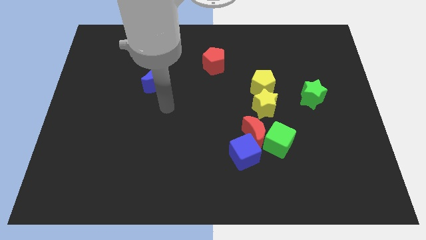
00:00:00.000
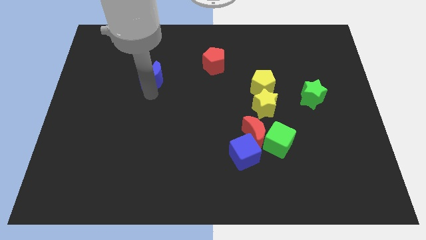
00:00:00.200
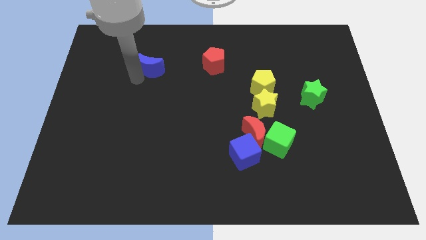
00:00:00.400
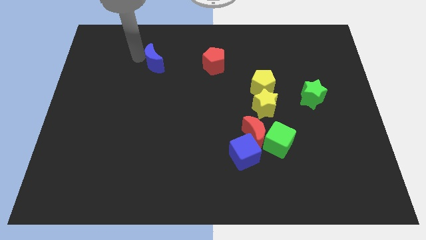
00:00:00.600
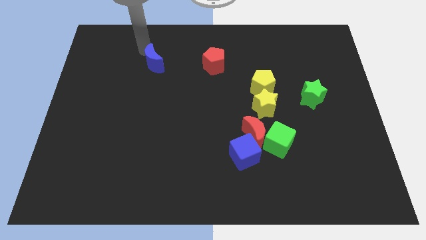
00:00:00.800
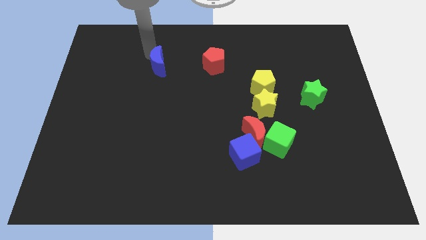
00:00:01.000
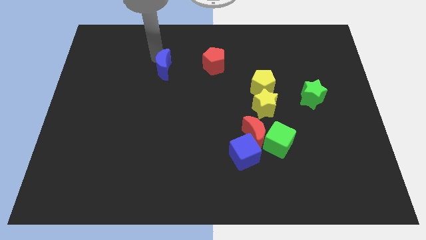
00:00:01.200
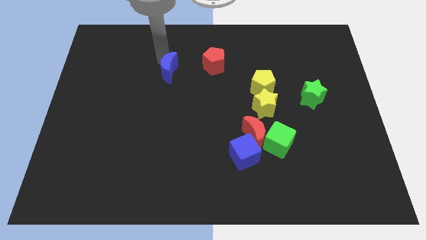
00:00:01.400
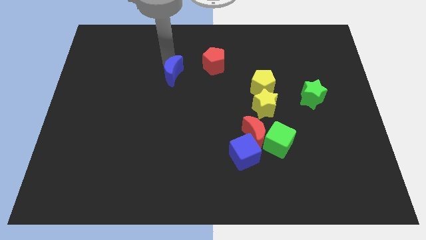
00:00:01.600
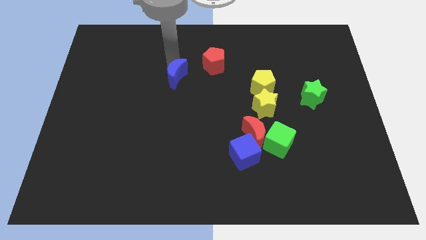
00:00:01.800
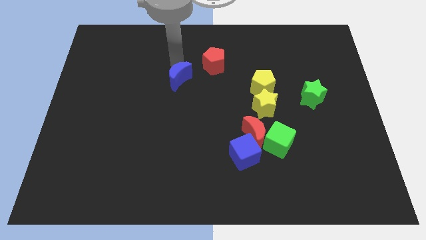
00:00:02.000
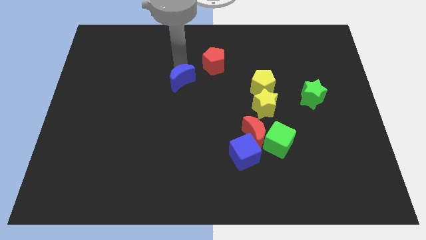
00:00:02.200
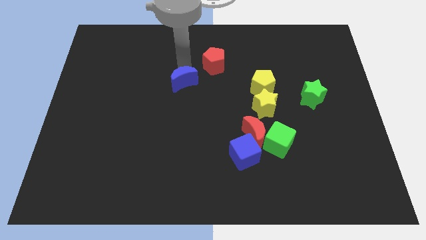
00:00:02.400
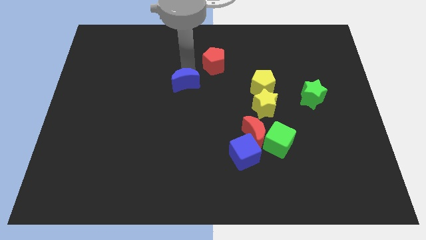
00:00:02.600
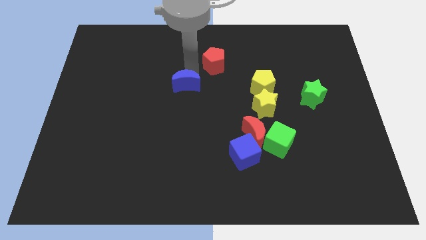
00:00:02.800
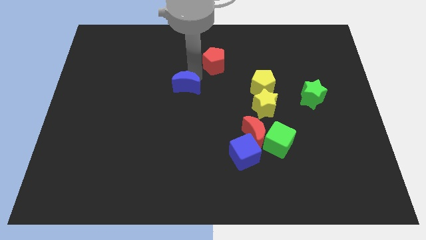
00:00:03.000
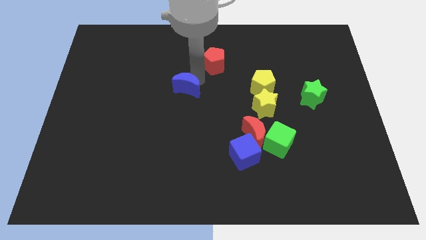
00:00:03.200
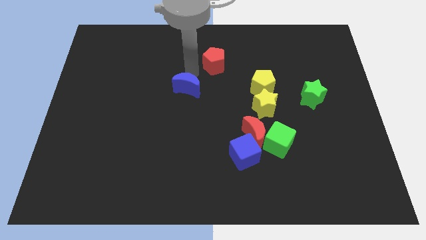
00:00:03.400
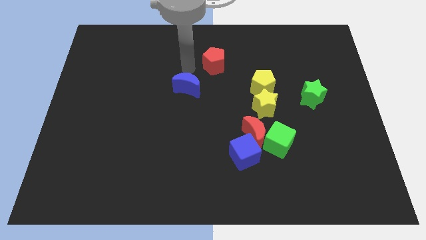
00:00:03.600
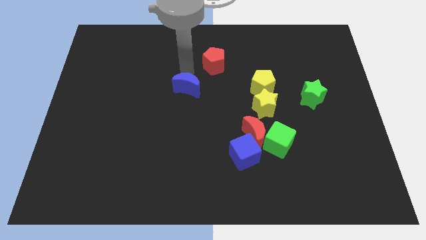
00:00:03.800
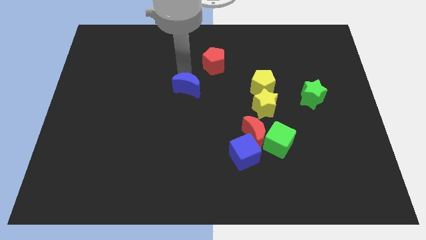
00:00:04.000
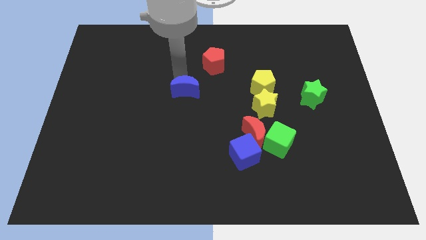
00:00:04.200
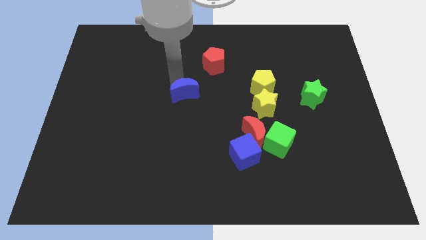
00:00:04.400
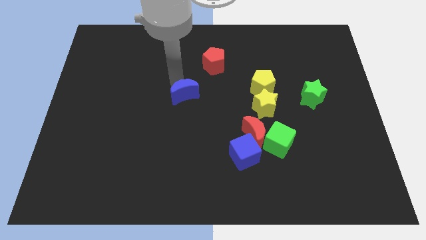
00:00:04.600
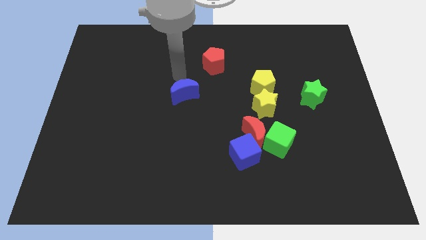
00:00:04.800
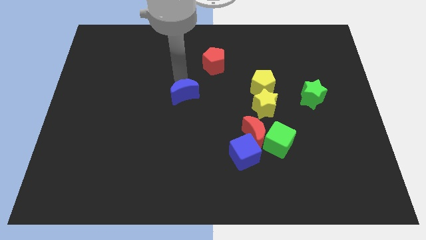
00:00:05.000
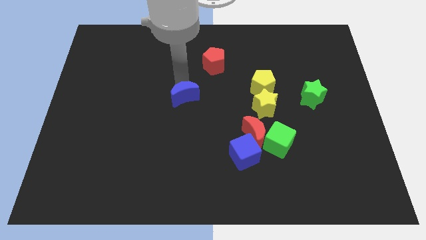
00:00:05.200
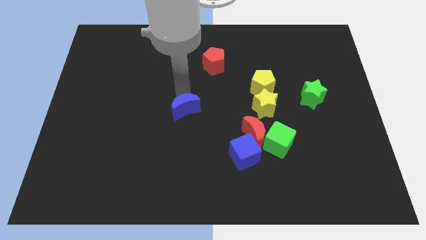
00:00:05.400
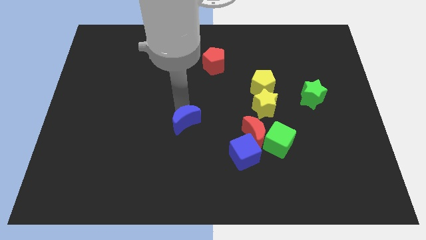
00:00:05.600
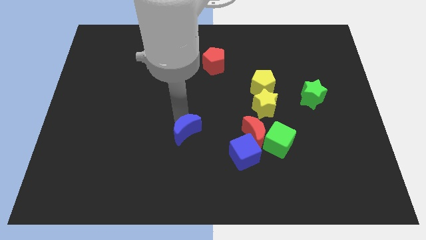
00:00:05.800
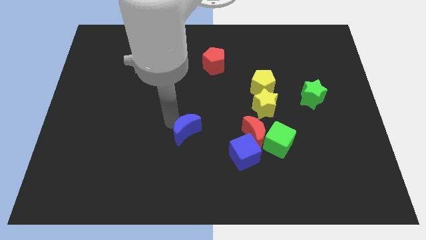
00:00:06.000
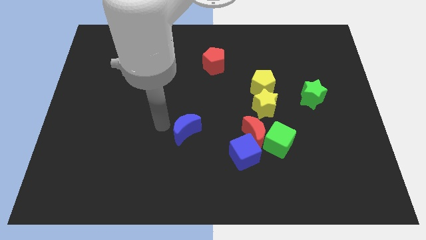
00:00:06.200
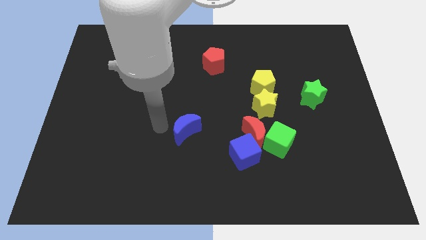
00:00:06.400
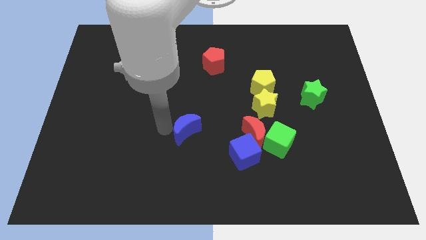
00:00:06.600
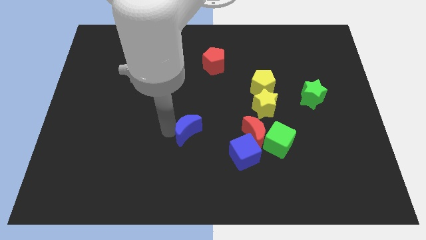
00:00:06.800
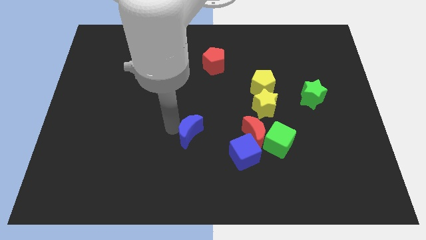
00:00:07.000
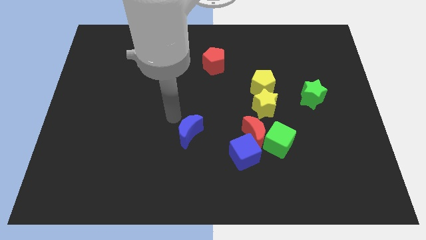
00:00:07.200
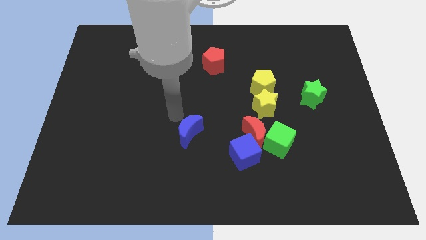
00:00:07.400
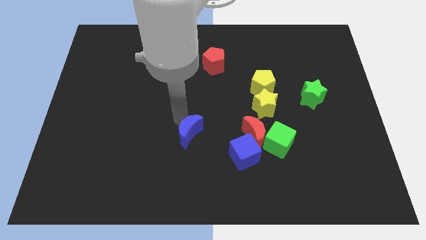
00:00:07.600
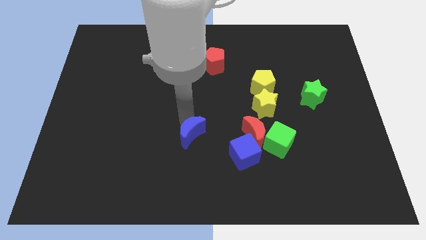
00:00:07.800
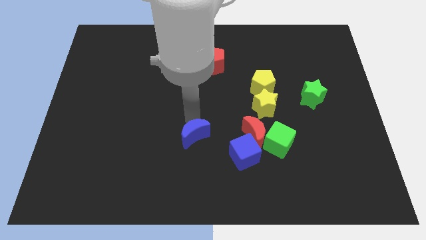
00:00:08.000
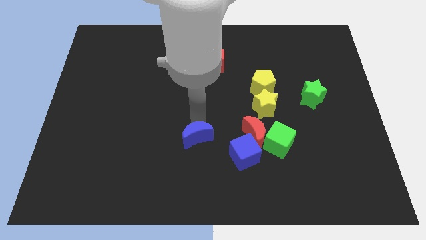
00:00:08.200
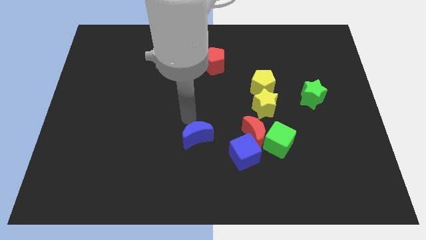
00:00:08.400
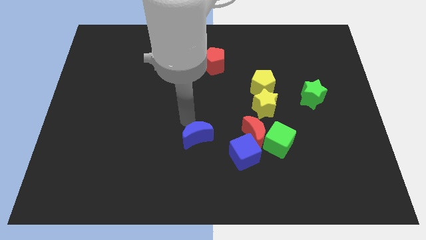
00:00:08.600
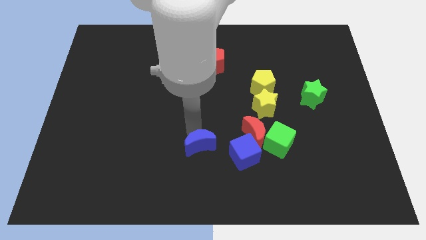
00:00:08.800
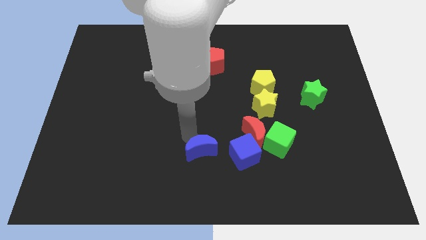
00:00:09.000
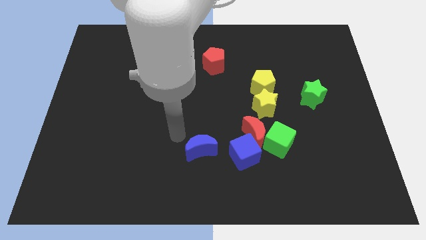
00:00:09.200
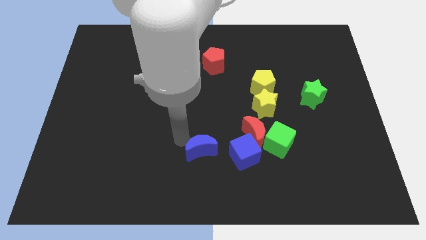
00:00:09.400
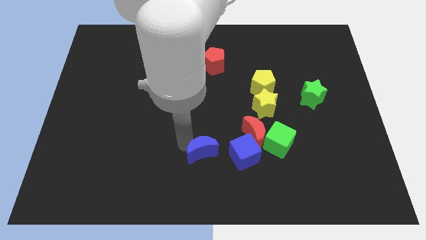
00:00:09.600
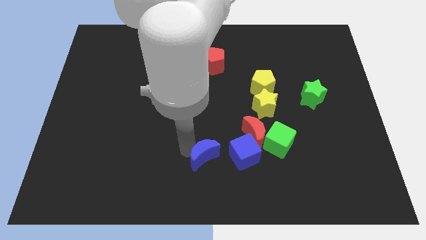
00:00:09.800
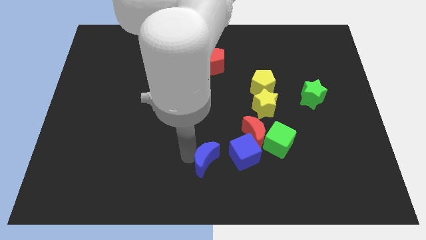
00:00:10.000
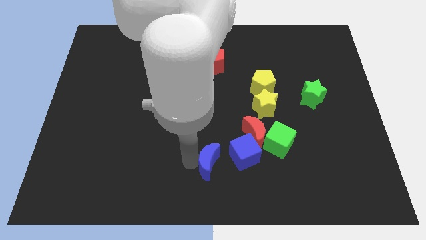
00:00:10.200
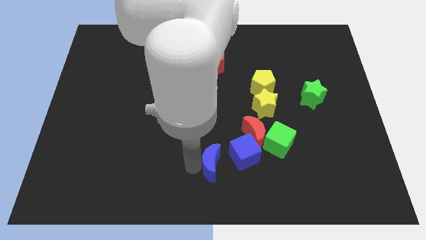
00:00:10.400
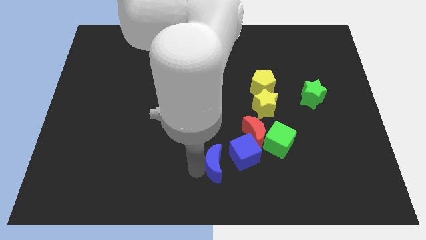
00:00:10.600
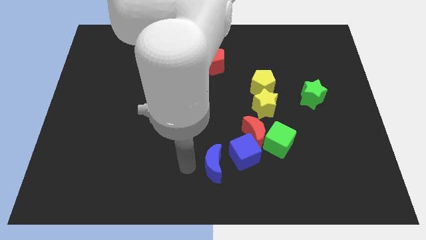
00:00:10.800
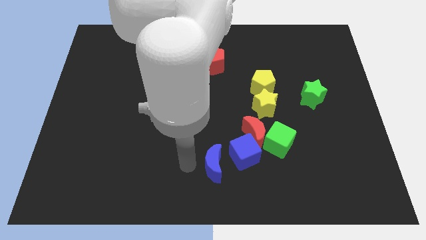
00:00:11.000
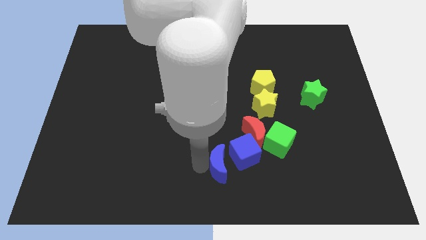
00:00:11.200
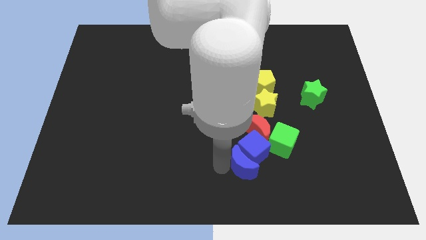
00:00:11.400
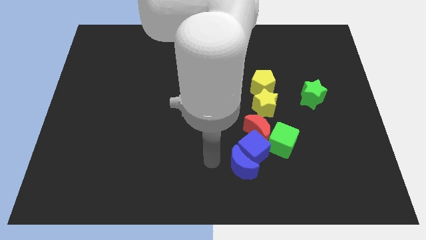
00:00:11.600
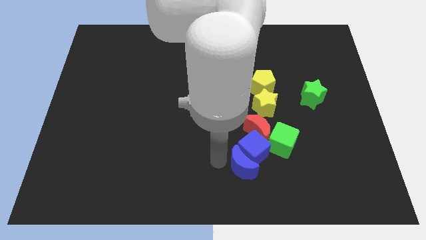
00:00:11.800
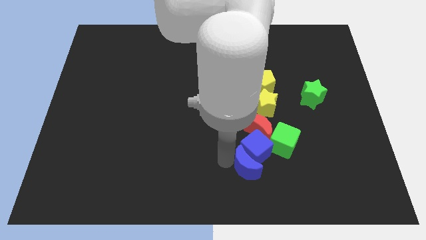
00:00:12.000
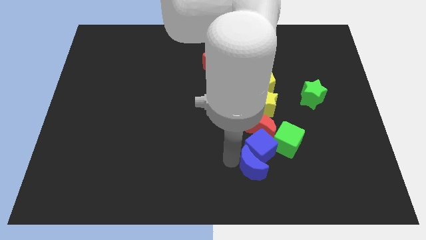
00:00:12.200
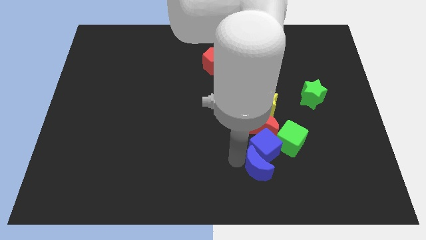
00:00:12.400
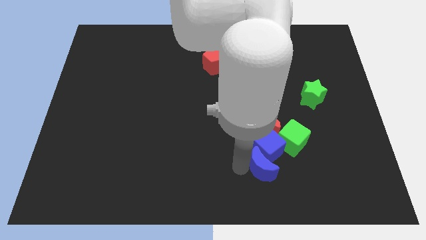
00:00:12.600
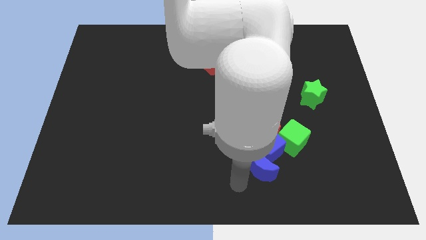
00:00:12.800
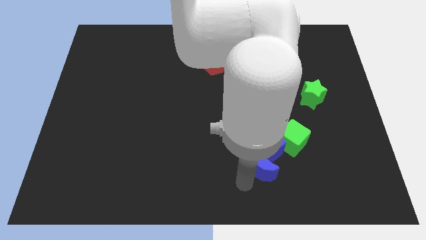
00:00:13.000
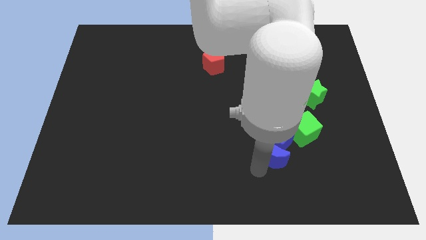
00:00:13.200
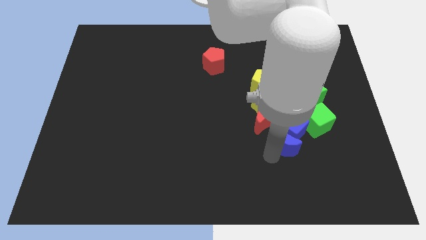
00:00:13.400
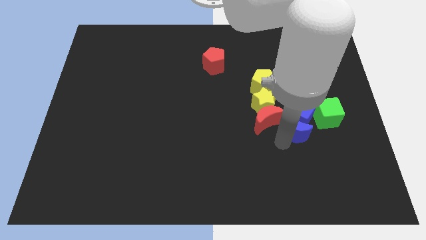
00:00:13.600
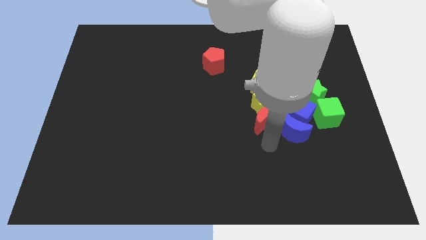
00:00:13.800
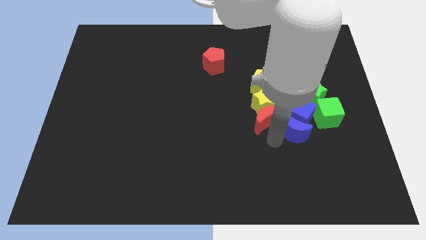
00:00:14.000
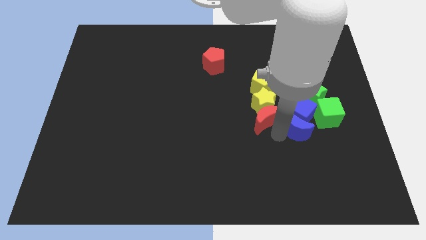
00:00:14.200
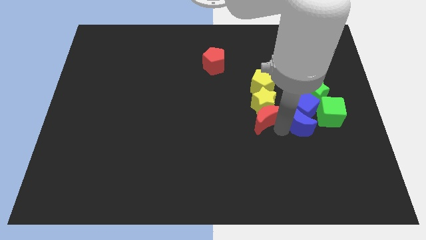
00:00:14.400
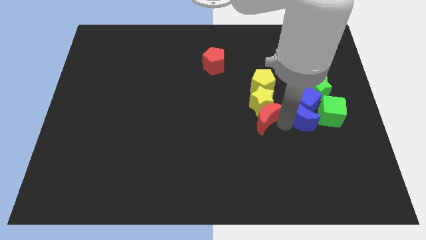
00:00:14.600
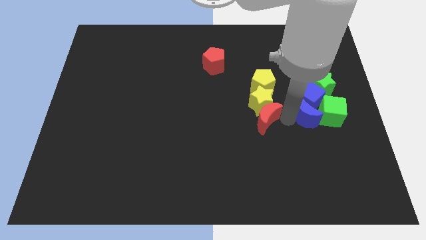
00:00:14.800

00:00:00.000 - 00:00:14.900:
move the blue moon towards the green cube

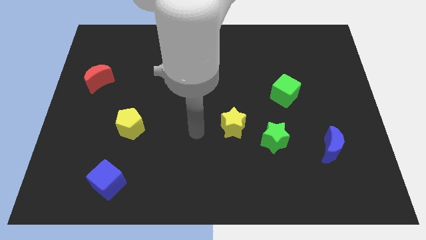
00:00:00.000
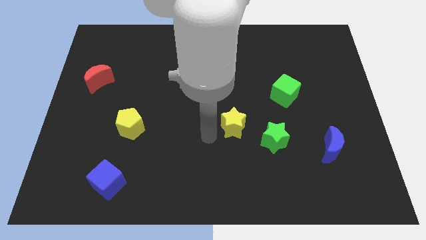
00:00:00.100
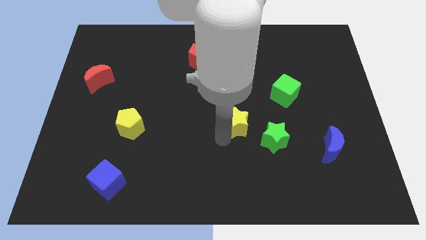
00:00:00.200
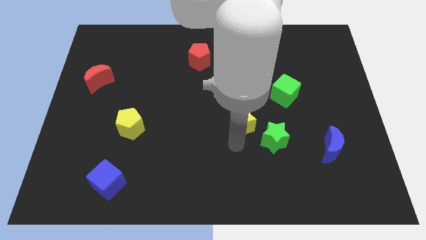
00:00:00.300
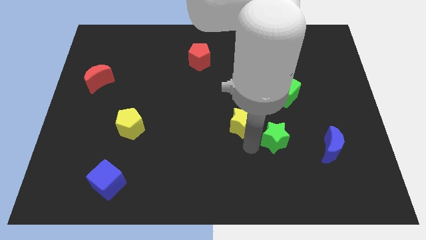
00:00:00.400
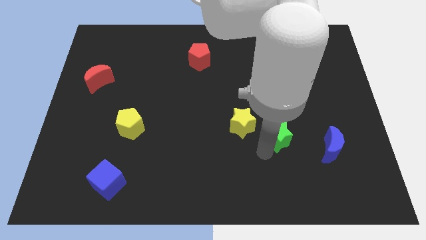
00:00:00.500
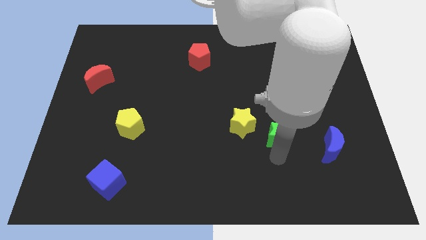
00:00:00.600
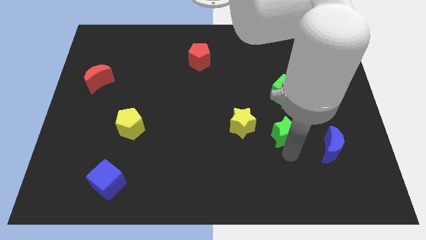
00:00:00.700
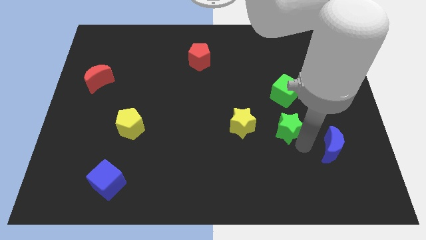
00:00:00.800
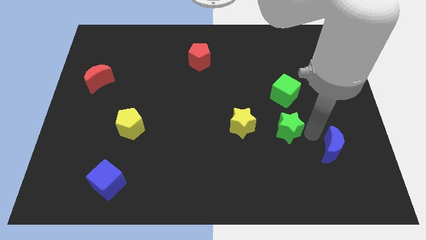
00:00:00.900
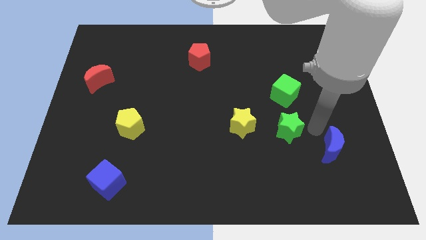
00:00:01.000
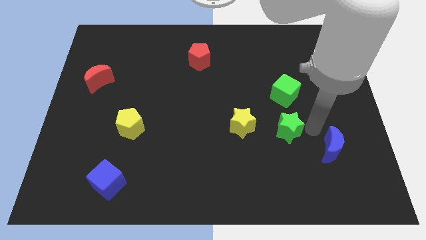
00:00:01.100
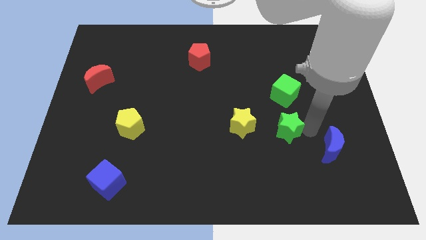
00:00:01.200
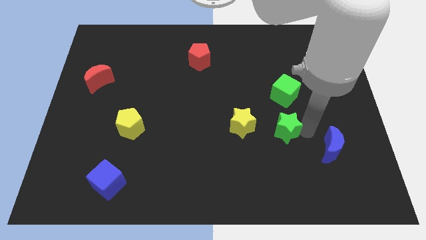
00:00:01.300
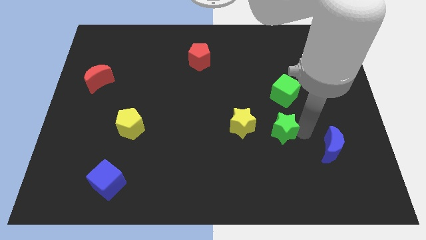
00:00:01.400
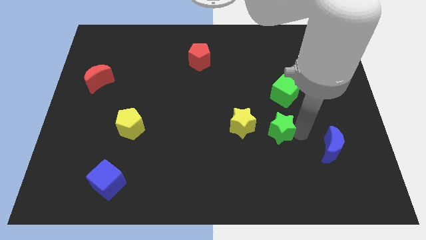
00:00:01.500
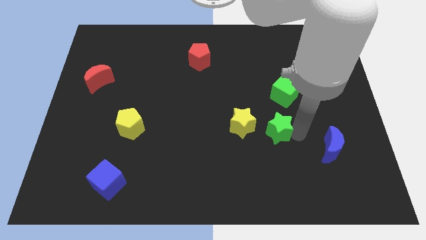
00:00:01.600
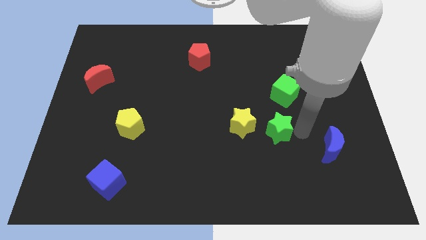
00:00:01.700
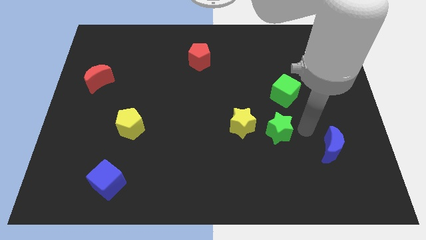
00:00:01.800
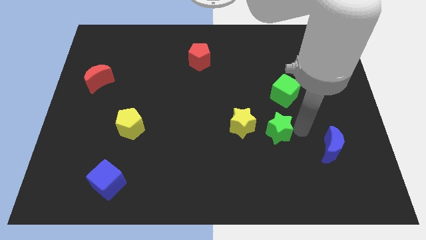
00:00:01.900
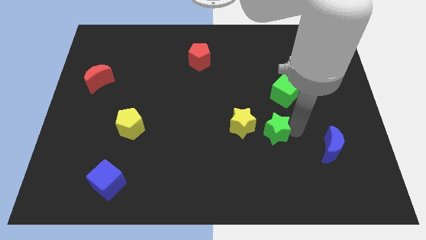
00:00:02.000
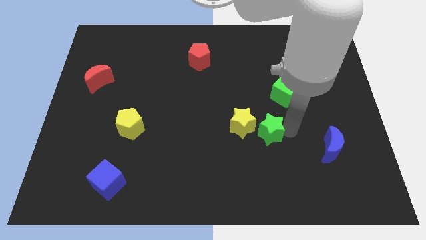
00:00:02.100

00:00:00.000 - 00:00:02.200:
slide the green star towards the yellow star
